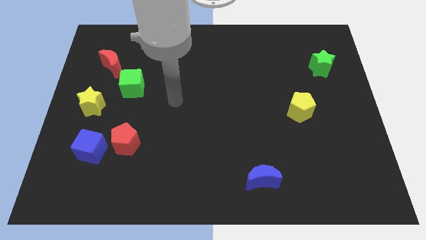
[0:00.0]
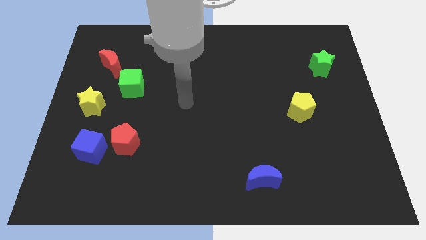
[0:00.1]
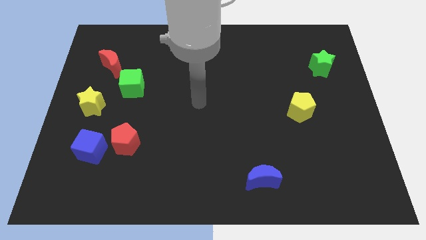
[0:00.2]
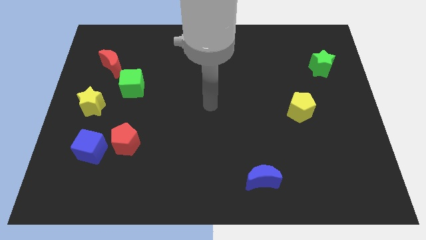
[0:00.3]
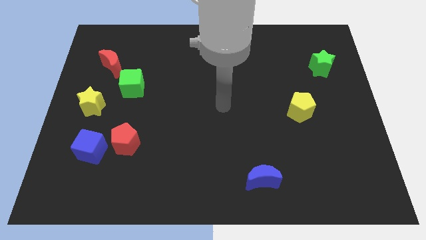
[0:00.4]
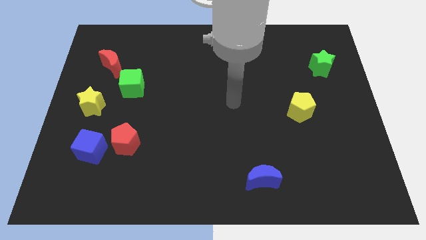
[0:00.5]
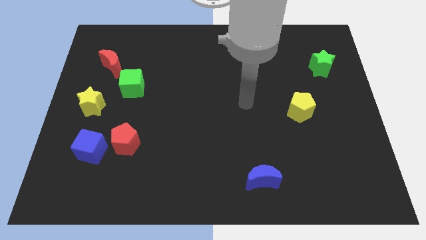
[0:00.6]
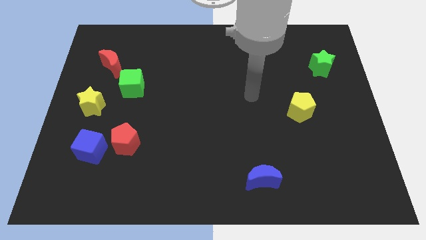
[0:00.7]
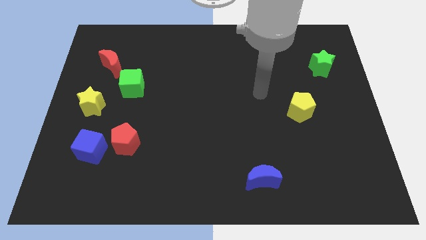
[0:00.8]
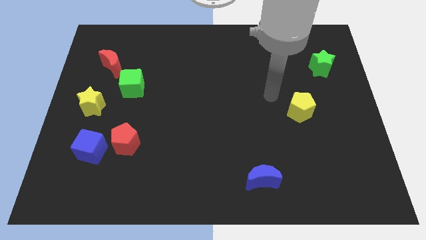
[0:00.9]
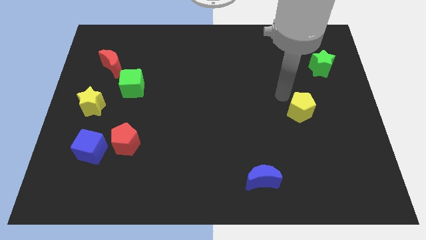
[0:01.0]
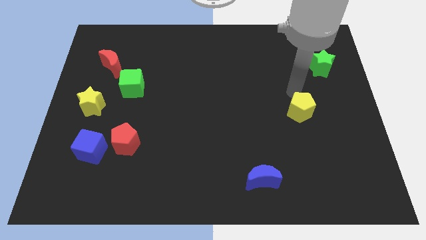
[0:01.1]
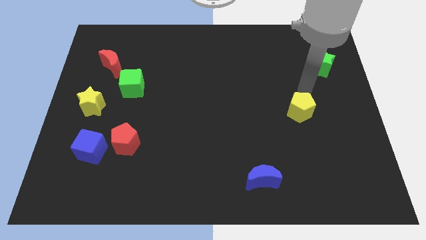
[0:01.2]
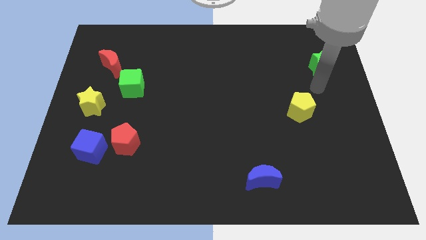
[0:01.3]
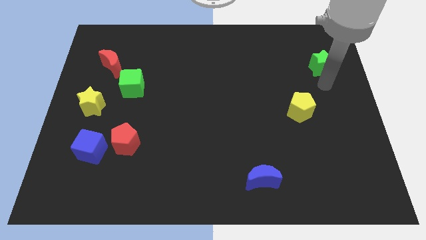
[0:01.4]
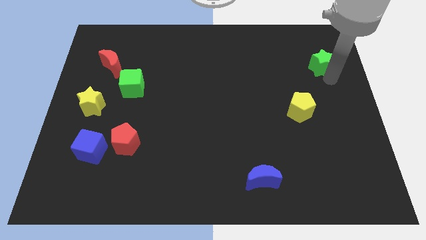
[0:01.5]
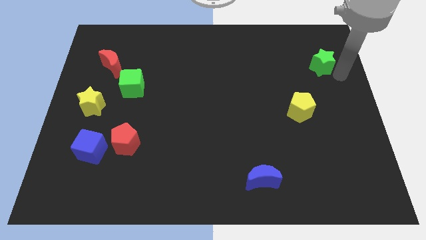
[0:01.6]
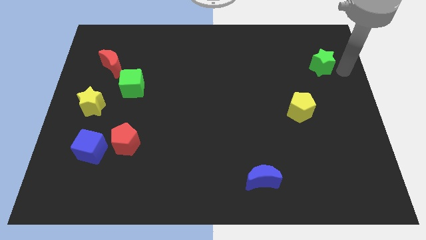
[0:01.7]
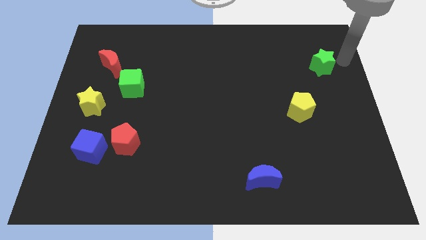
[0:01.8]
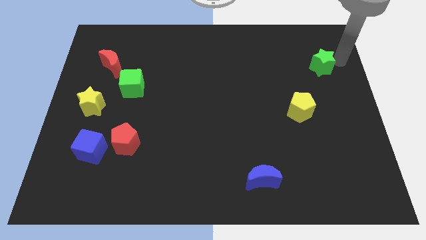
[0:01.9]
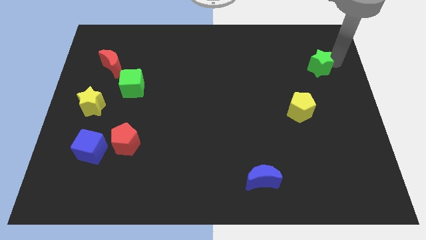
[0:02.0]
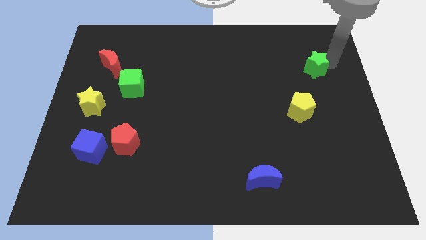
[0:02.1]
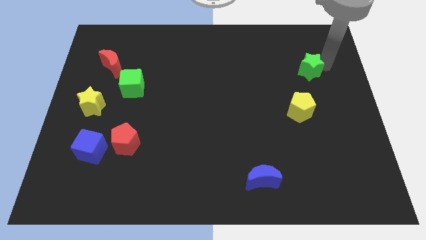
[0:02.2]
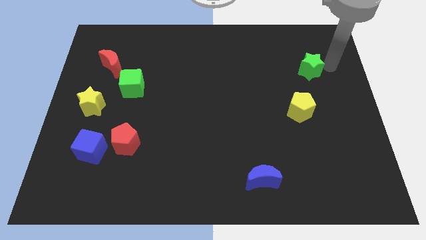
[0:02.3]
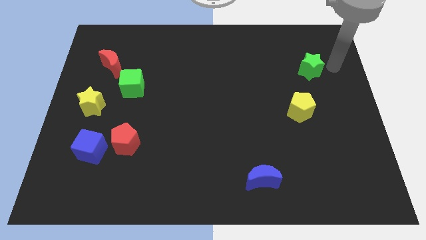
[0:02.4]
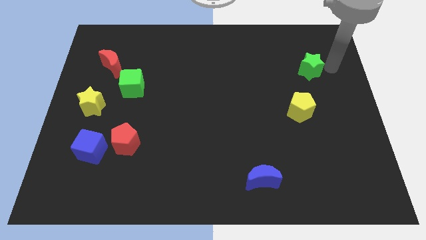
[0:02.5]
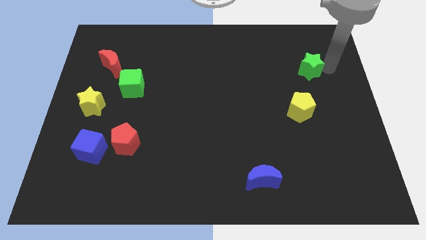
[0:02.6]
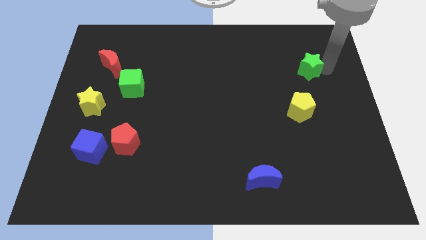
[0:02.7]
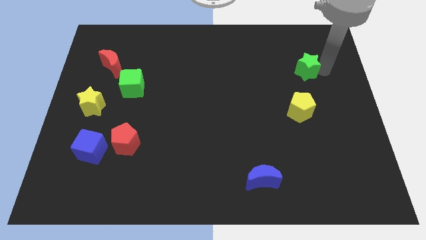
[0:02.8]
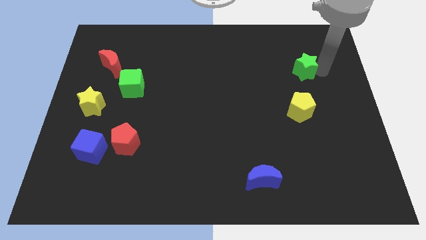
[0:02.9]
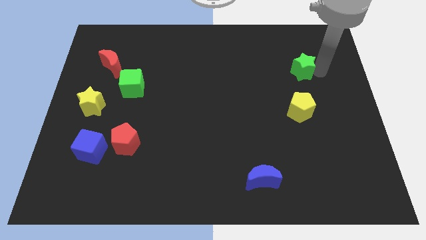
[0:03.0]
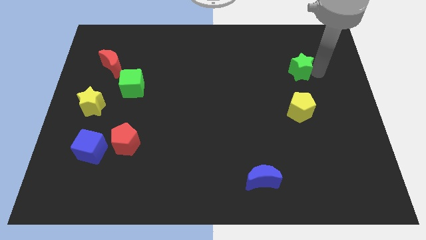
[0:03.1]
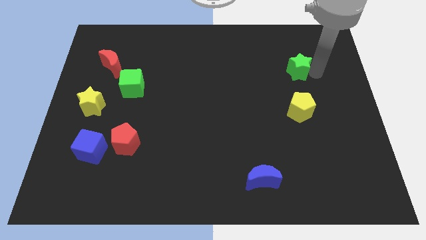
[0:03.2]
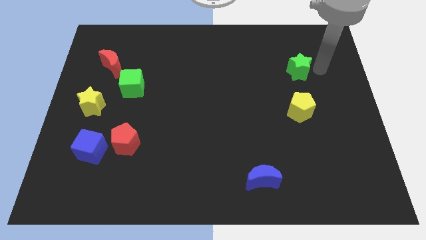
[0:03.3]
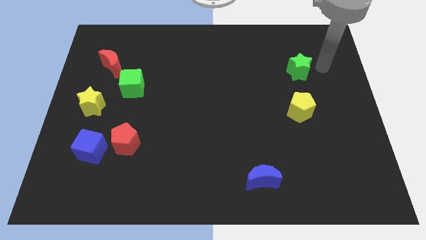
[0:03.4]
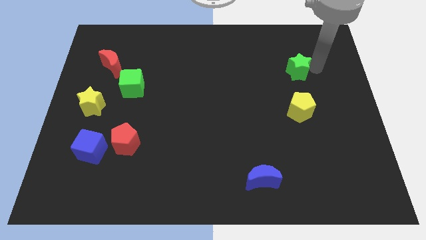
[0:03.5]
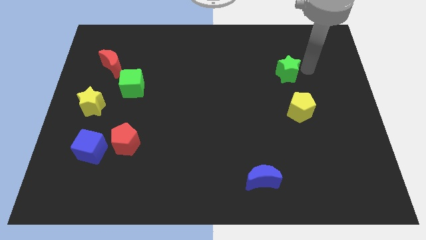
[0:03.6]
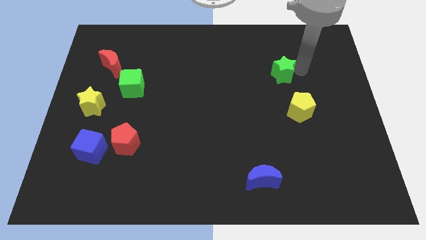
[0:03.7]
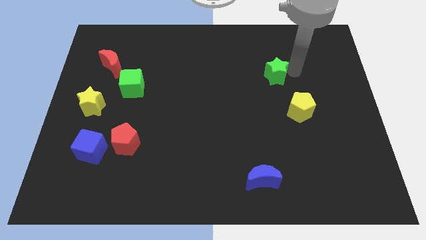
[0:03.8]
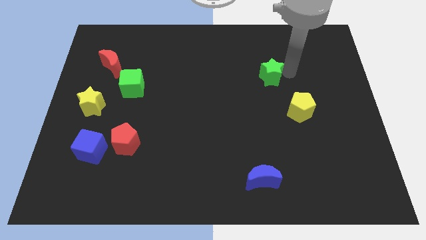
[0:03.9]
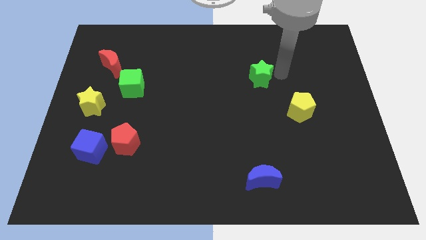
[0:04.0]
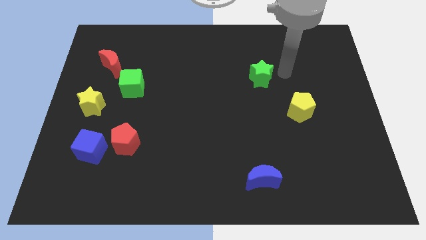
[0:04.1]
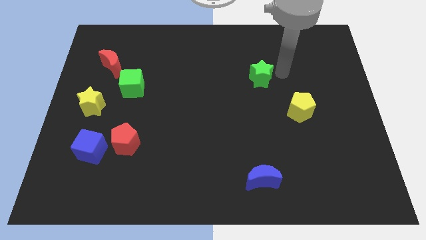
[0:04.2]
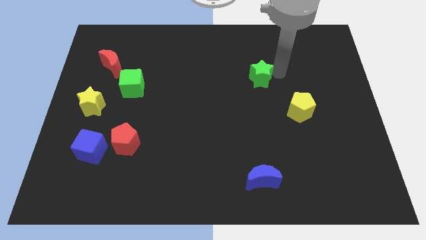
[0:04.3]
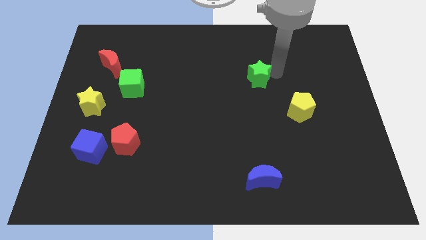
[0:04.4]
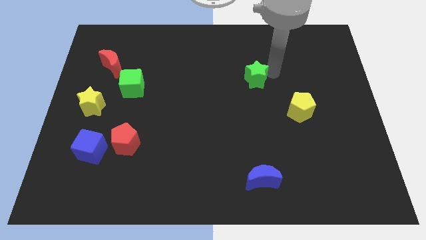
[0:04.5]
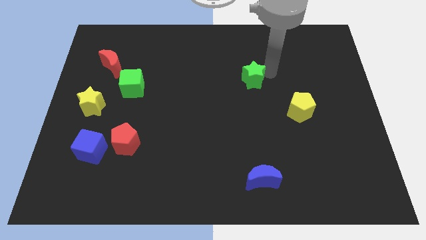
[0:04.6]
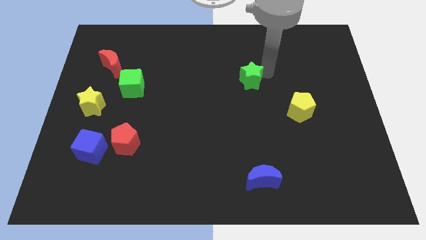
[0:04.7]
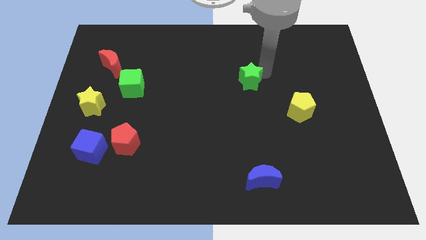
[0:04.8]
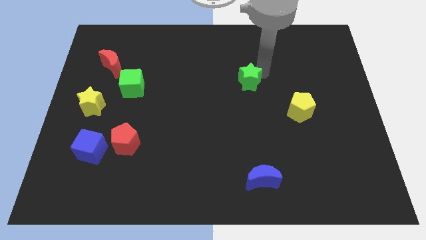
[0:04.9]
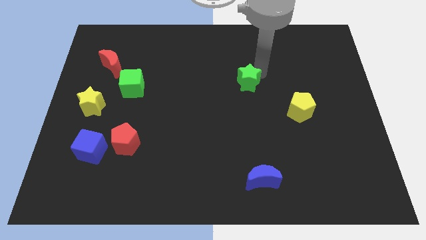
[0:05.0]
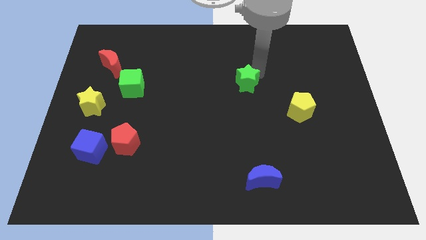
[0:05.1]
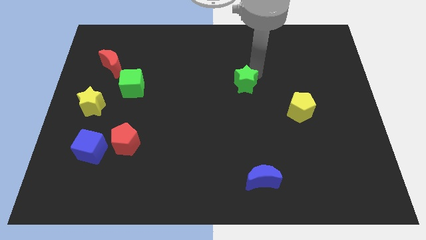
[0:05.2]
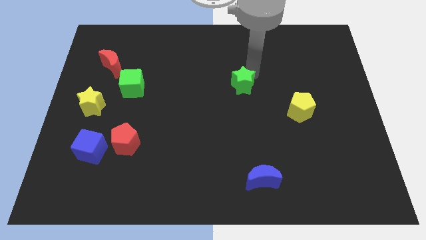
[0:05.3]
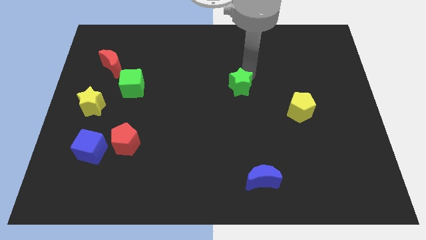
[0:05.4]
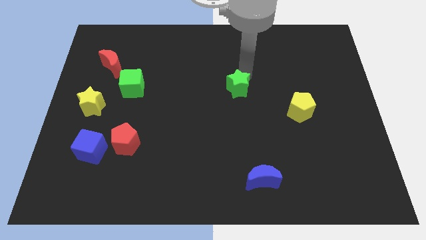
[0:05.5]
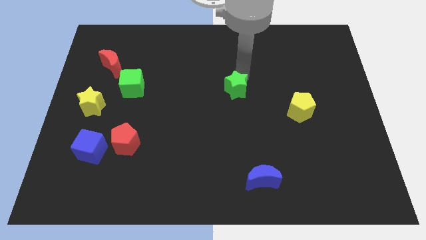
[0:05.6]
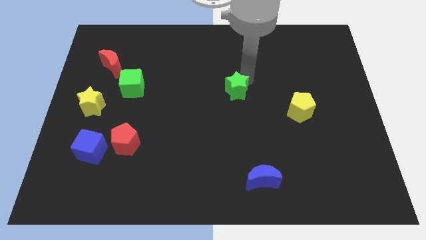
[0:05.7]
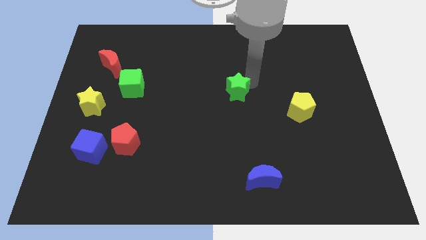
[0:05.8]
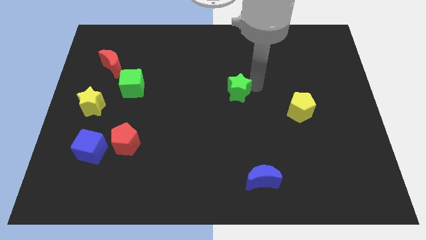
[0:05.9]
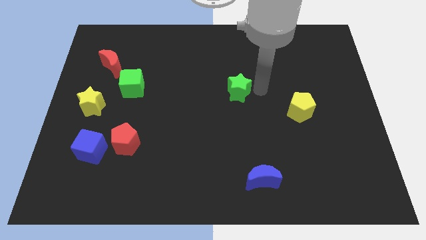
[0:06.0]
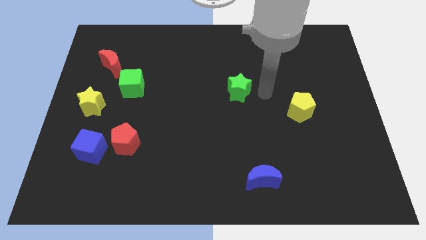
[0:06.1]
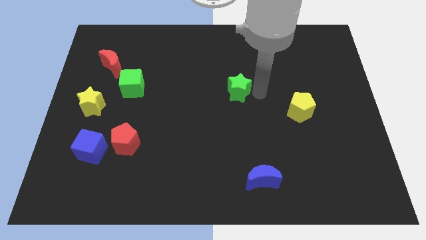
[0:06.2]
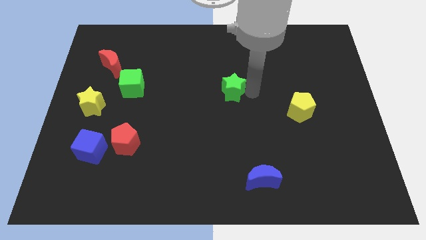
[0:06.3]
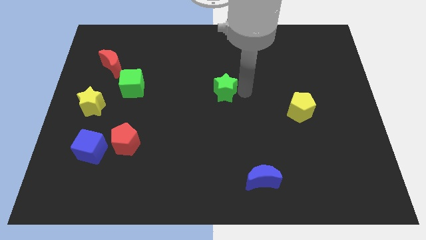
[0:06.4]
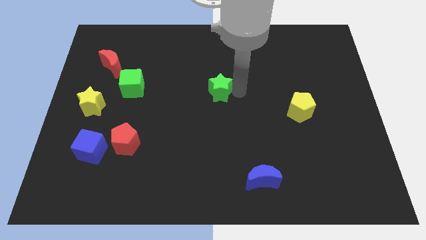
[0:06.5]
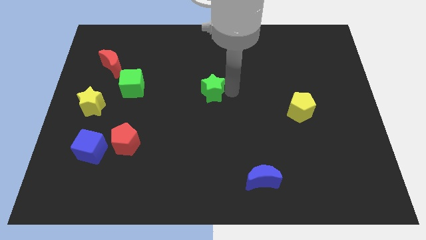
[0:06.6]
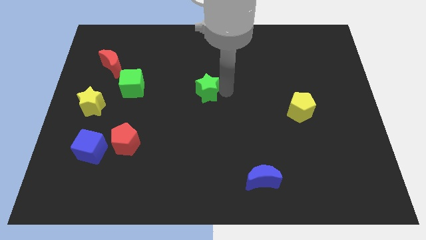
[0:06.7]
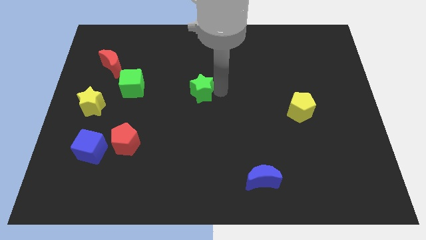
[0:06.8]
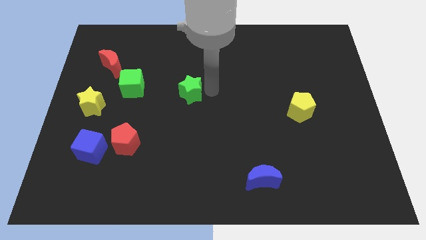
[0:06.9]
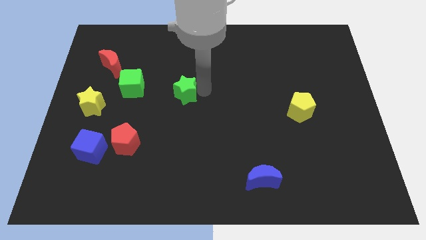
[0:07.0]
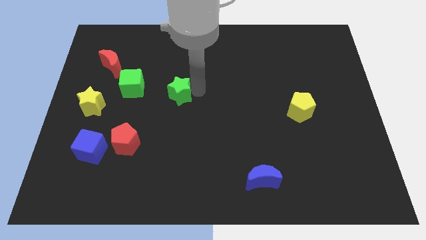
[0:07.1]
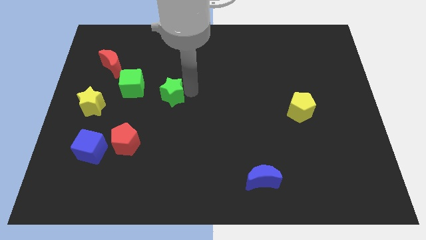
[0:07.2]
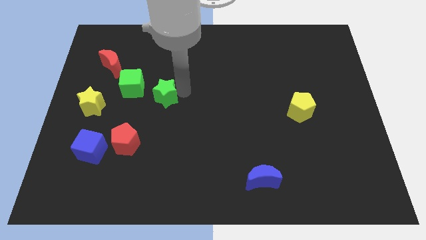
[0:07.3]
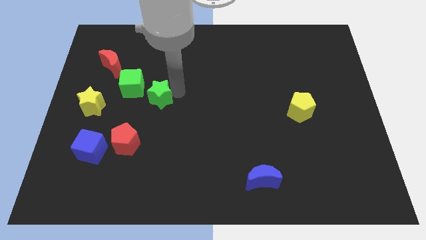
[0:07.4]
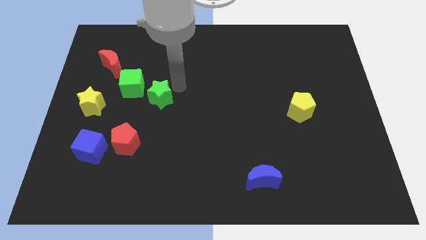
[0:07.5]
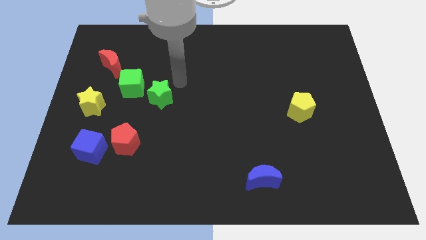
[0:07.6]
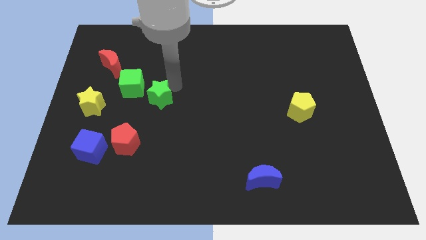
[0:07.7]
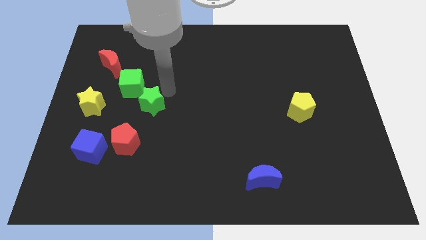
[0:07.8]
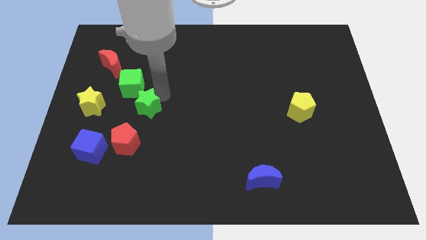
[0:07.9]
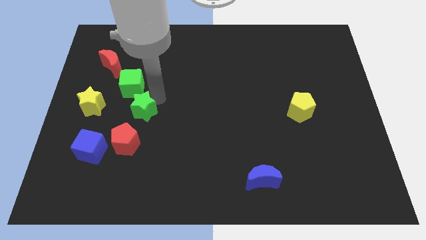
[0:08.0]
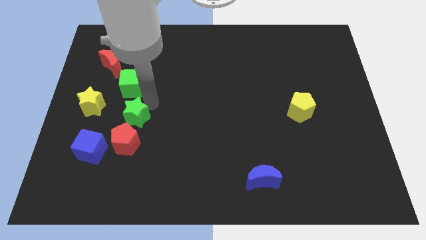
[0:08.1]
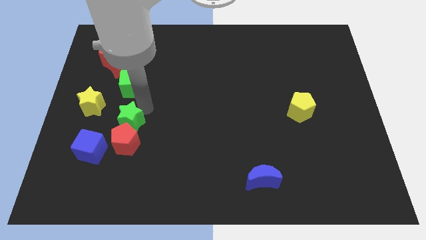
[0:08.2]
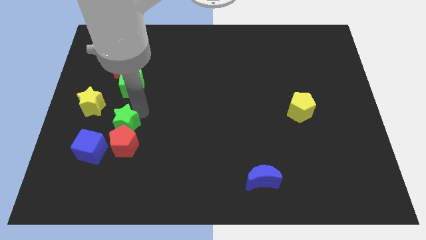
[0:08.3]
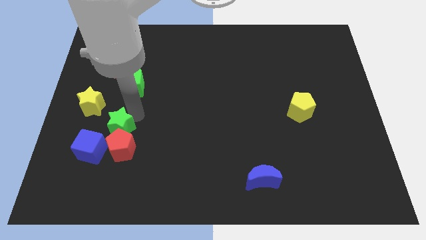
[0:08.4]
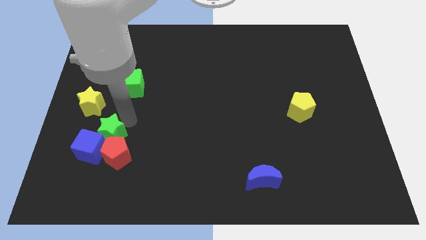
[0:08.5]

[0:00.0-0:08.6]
move the green star close to the blue cube
